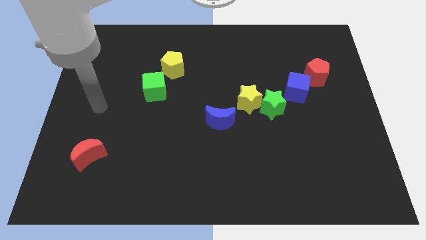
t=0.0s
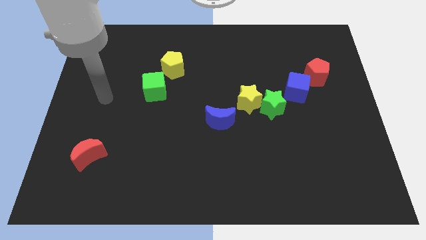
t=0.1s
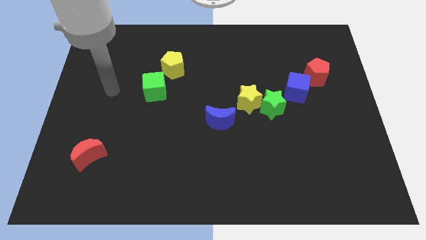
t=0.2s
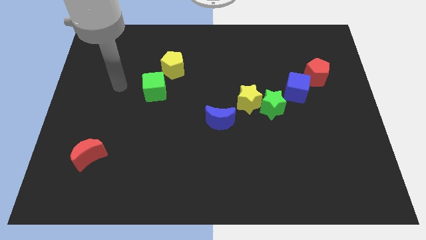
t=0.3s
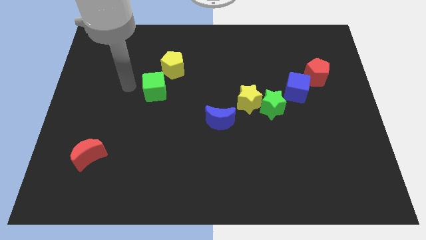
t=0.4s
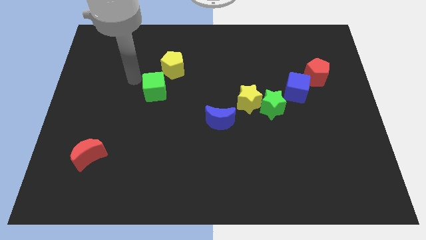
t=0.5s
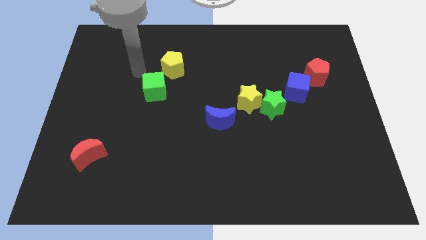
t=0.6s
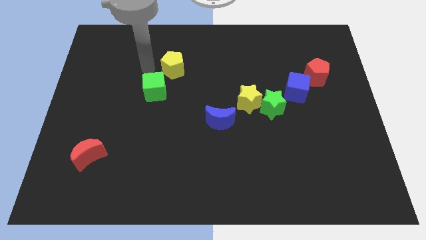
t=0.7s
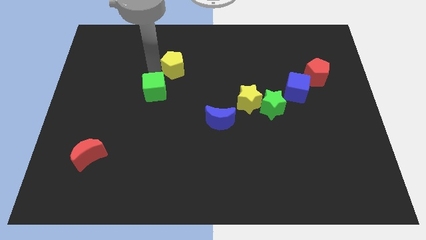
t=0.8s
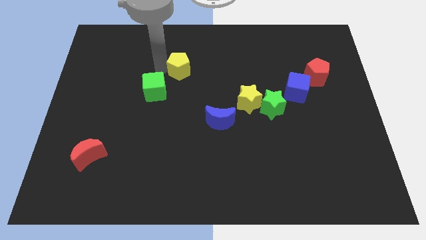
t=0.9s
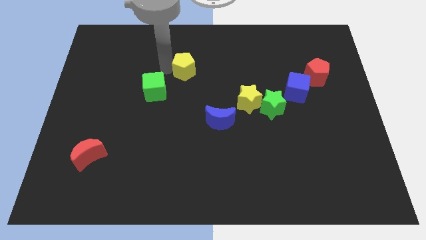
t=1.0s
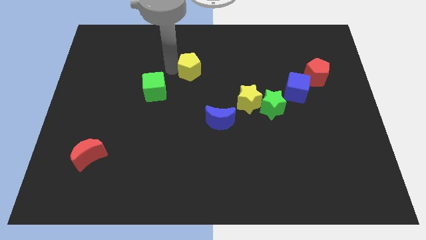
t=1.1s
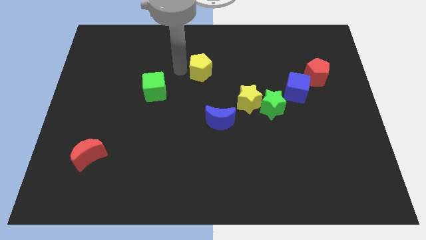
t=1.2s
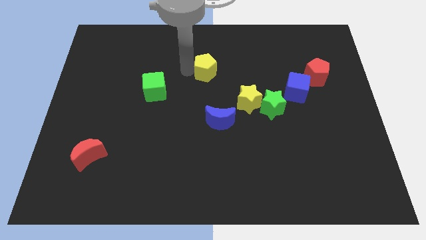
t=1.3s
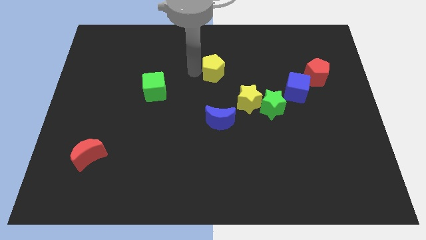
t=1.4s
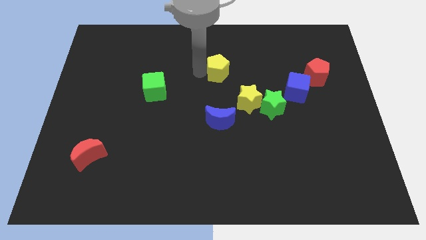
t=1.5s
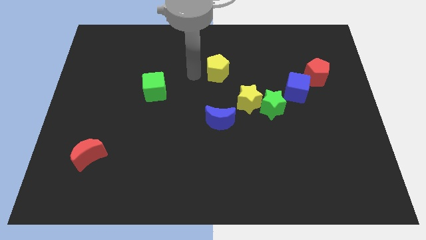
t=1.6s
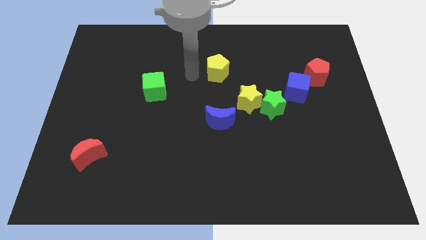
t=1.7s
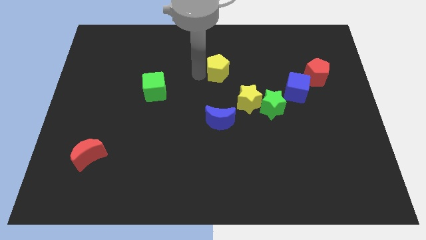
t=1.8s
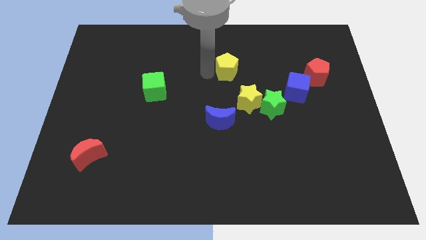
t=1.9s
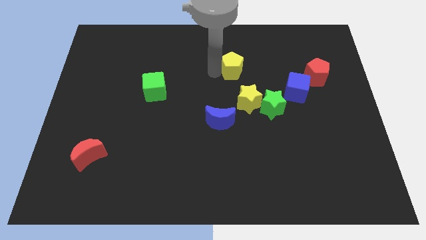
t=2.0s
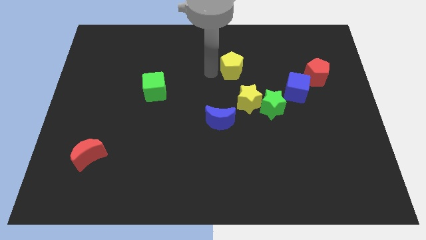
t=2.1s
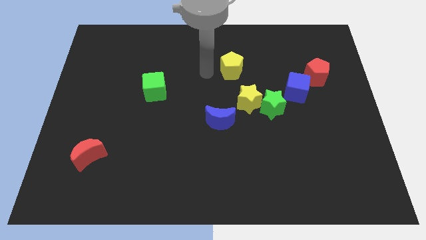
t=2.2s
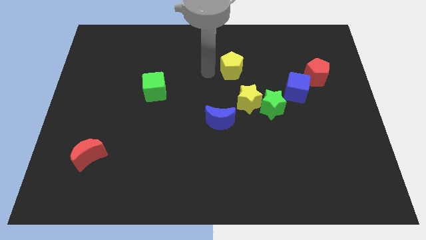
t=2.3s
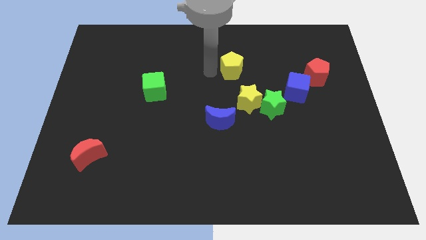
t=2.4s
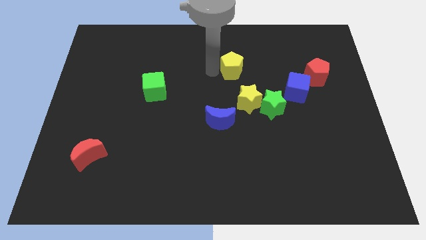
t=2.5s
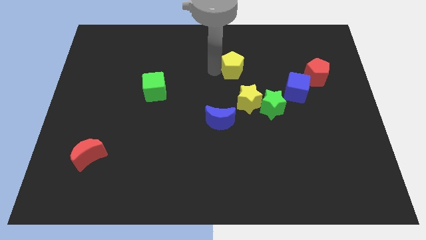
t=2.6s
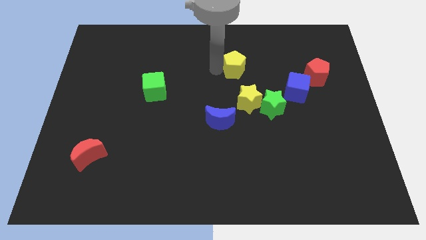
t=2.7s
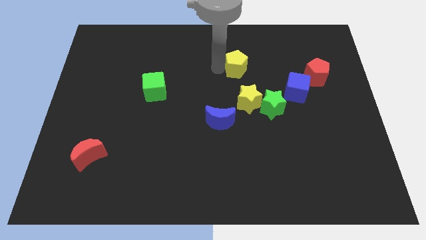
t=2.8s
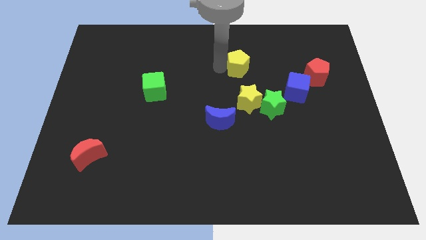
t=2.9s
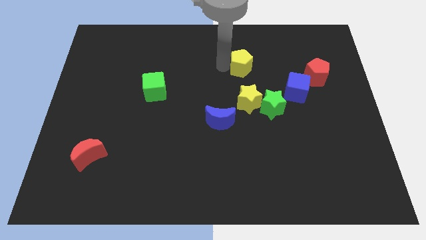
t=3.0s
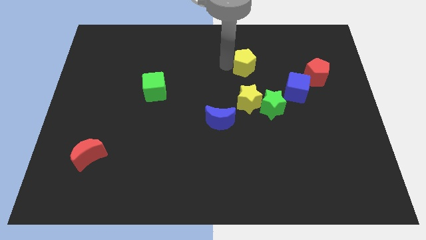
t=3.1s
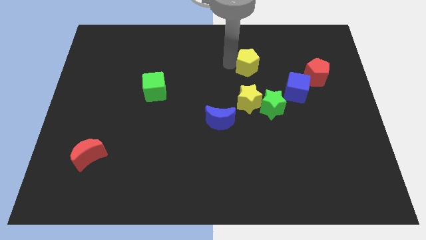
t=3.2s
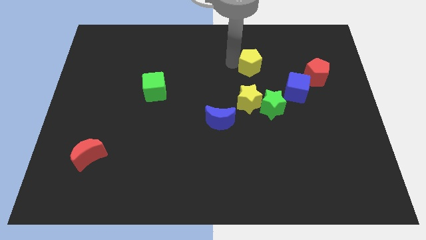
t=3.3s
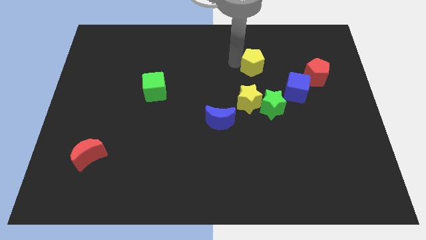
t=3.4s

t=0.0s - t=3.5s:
push the yellow pentagon right

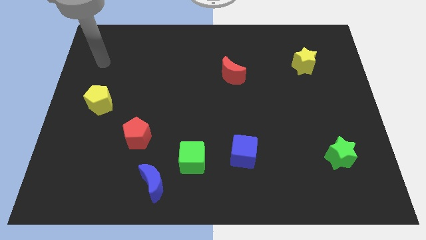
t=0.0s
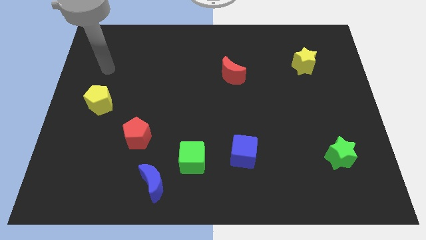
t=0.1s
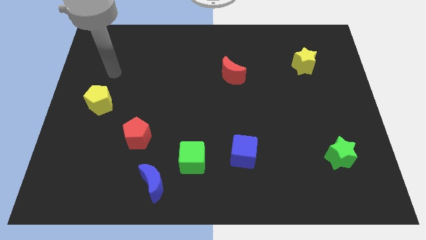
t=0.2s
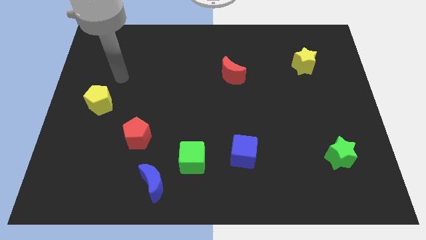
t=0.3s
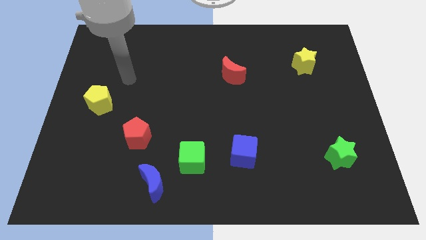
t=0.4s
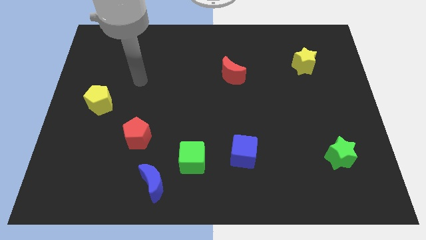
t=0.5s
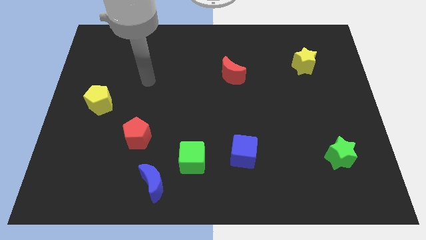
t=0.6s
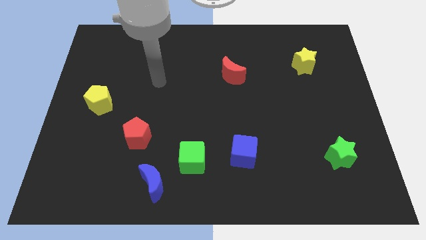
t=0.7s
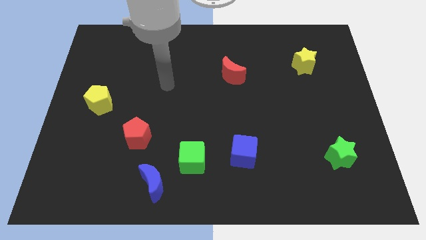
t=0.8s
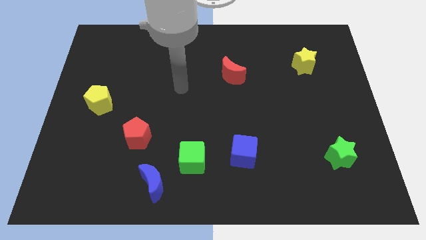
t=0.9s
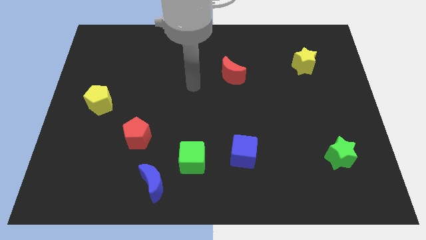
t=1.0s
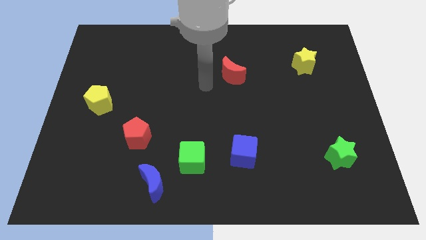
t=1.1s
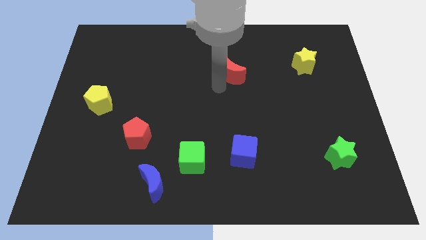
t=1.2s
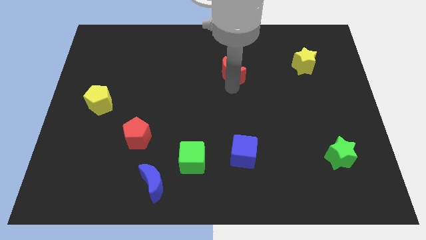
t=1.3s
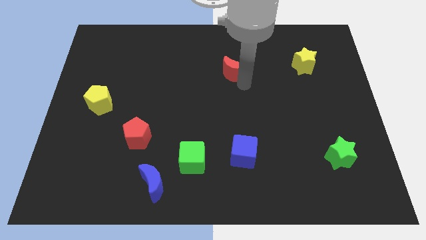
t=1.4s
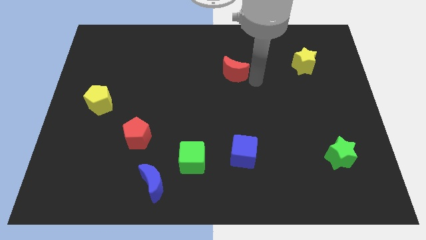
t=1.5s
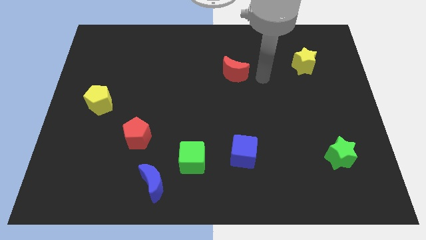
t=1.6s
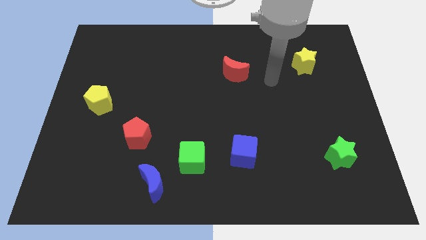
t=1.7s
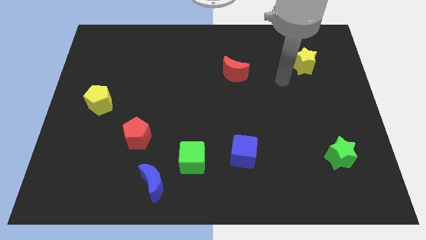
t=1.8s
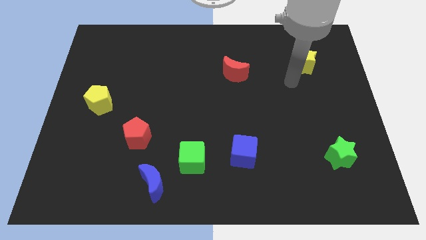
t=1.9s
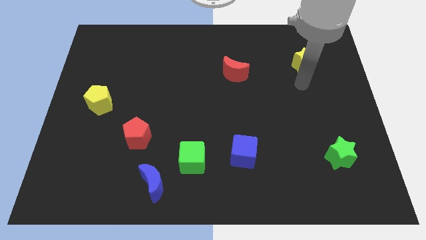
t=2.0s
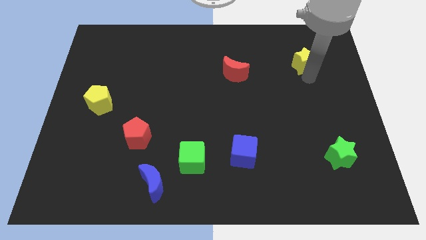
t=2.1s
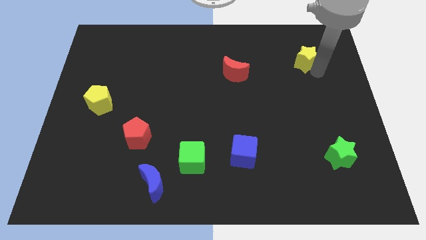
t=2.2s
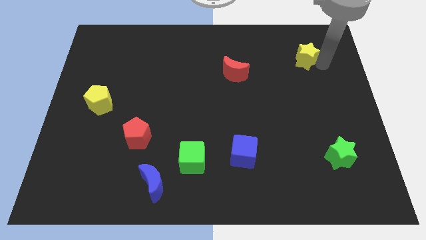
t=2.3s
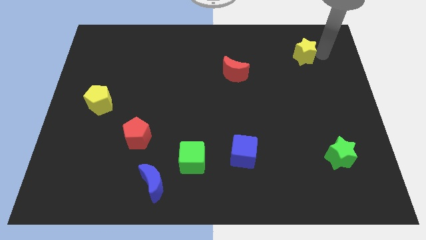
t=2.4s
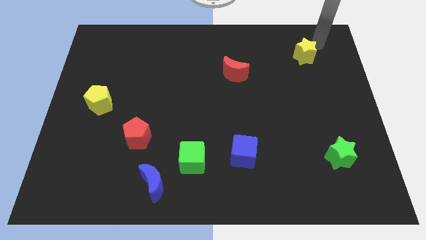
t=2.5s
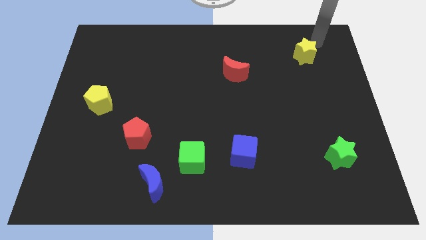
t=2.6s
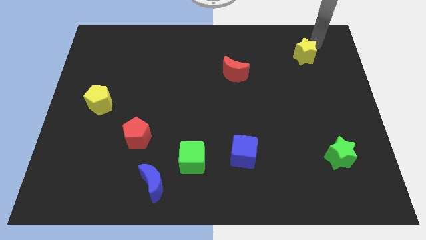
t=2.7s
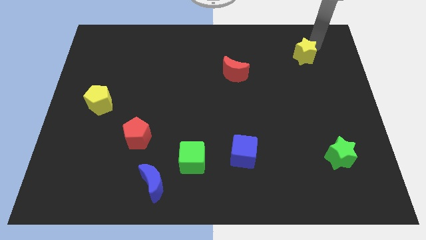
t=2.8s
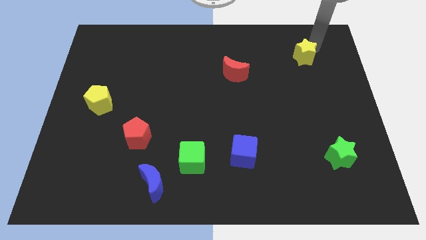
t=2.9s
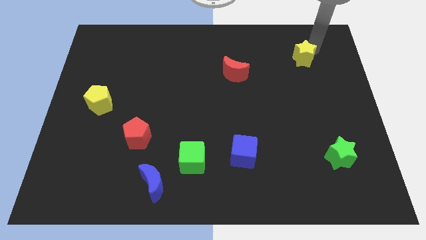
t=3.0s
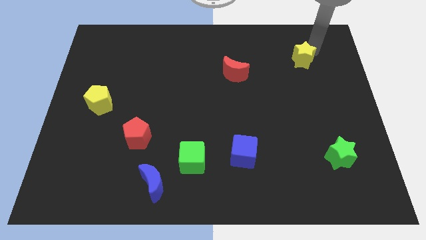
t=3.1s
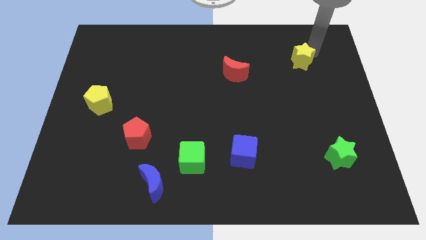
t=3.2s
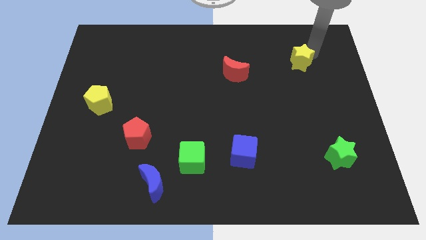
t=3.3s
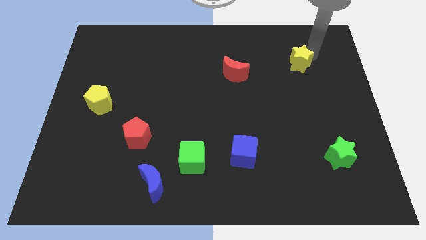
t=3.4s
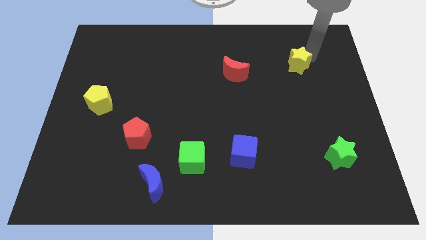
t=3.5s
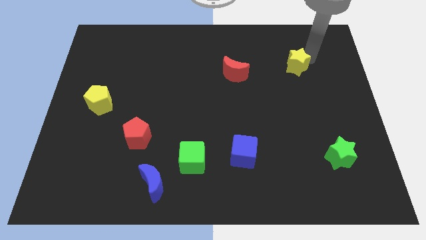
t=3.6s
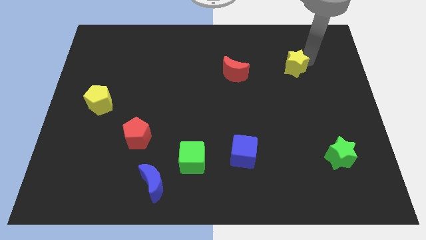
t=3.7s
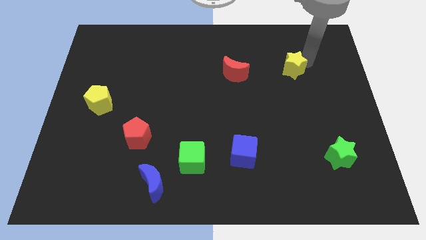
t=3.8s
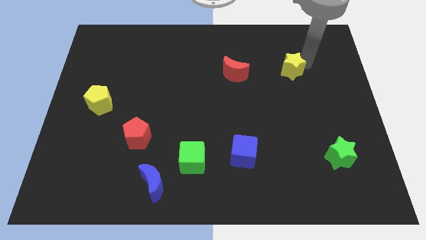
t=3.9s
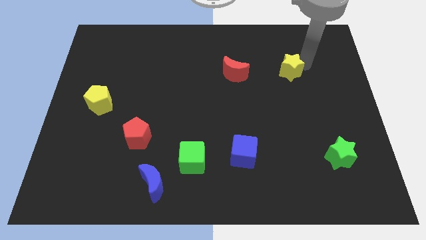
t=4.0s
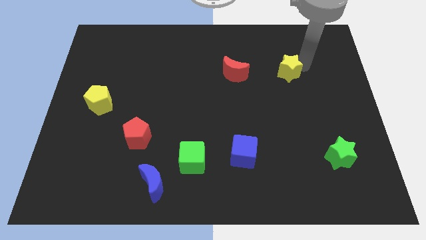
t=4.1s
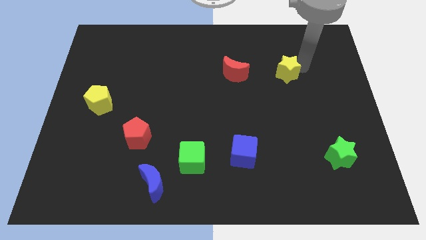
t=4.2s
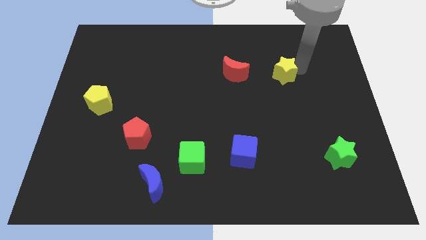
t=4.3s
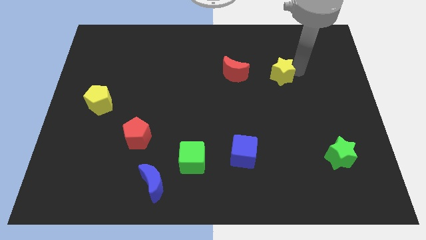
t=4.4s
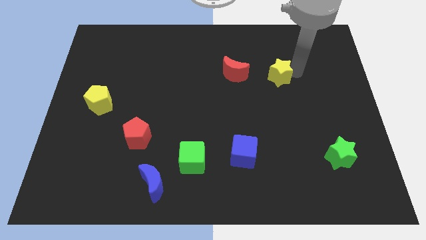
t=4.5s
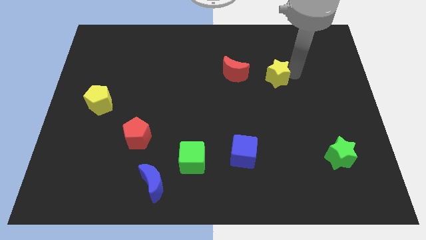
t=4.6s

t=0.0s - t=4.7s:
slightly move the yellow star to the left

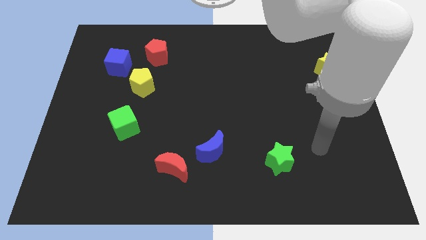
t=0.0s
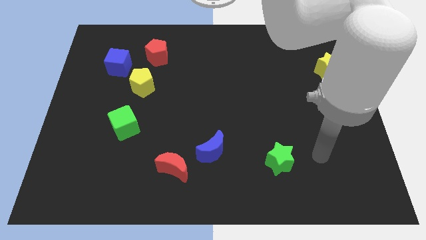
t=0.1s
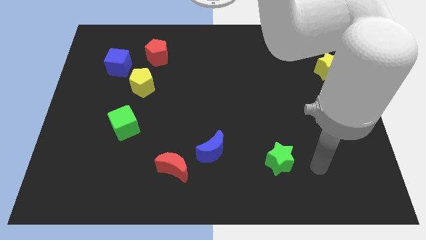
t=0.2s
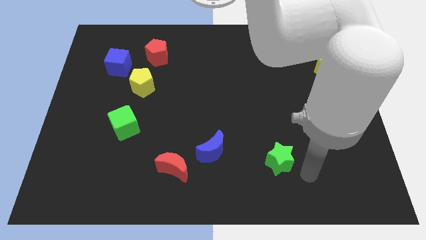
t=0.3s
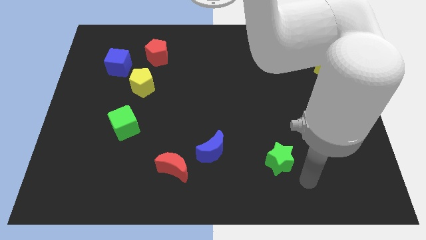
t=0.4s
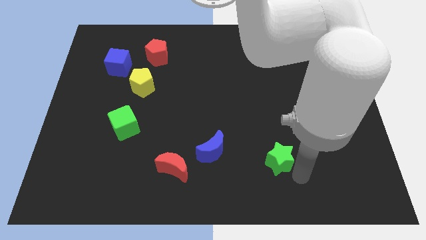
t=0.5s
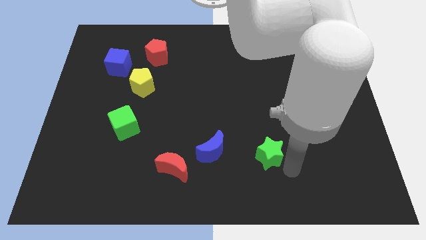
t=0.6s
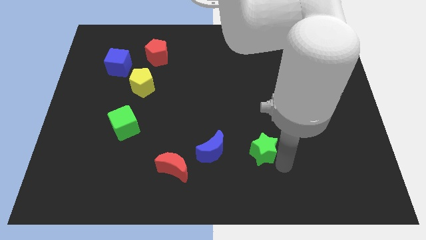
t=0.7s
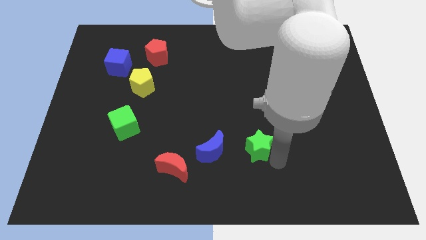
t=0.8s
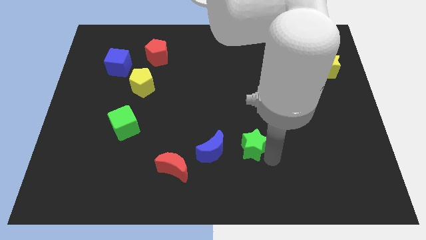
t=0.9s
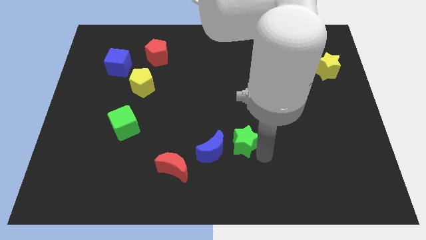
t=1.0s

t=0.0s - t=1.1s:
push the green star a little diagonally upwards and to the left
